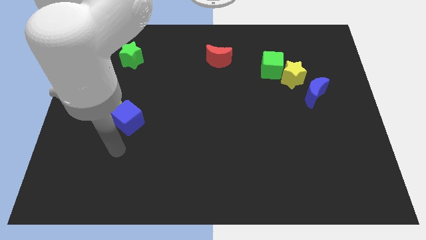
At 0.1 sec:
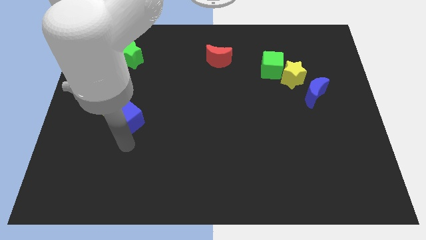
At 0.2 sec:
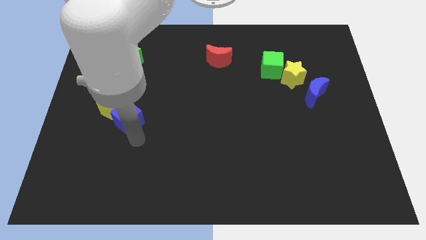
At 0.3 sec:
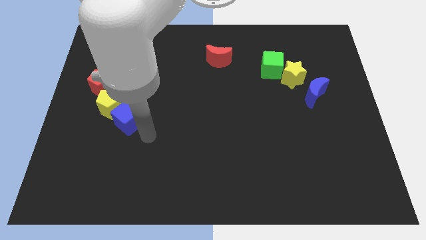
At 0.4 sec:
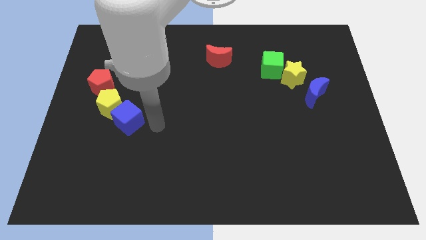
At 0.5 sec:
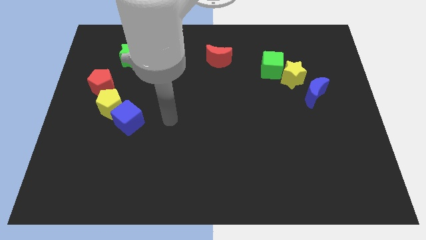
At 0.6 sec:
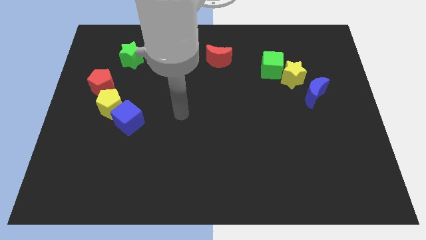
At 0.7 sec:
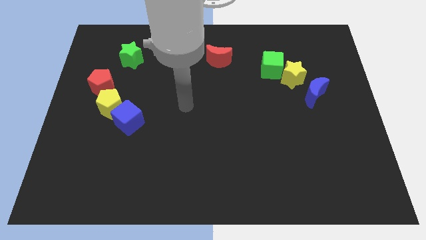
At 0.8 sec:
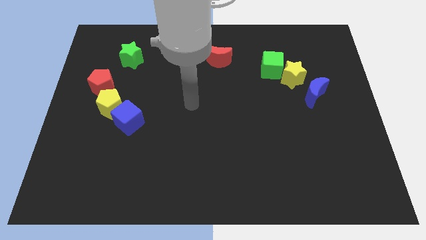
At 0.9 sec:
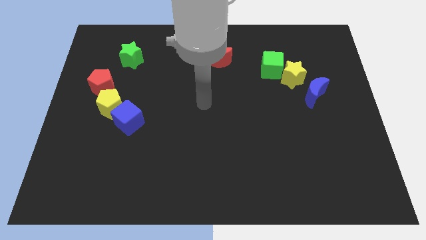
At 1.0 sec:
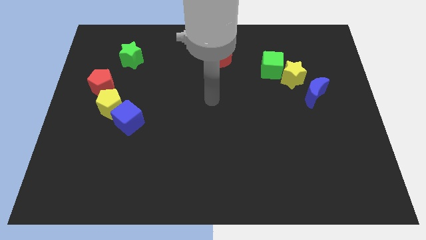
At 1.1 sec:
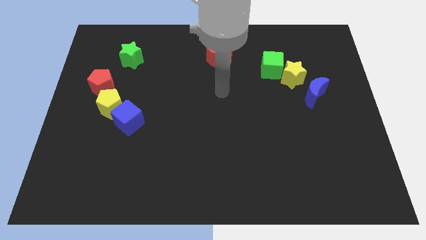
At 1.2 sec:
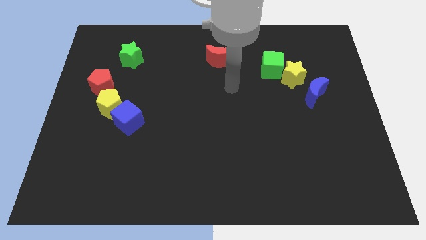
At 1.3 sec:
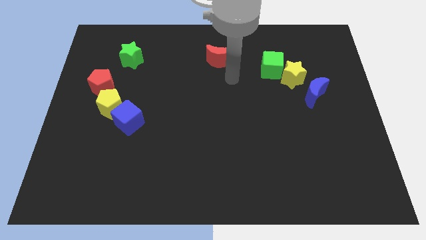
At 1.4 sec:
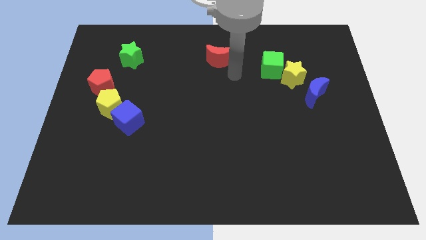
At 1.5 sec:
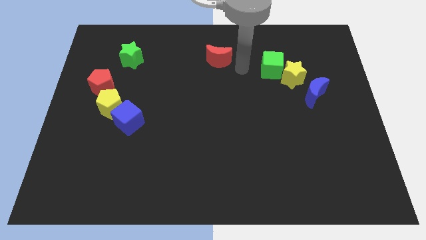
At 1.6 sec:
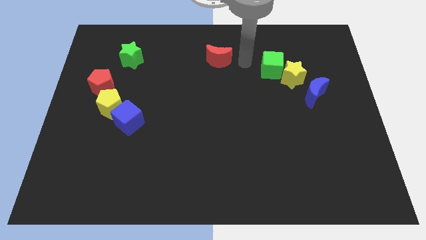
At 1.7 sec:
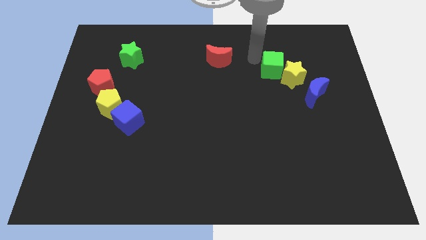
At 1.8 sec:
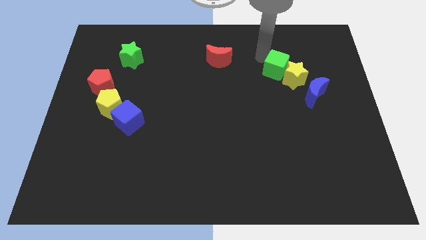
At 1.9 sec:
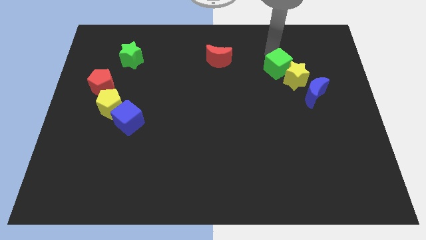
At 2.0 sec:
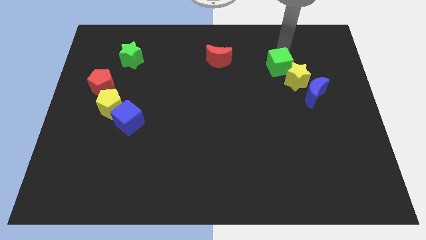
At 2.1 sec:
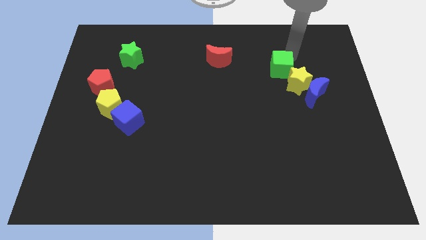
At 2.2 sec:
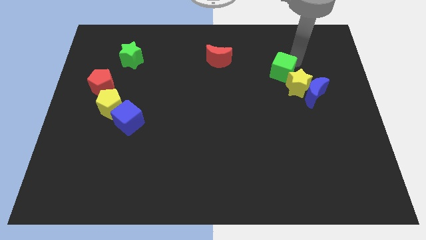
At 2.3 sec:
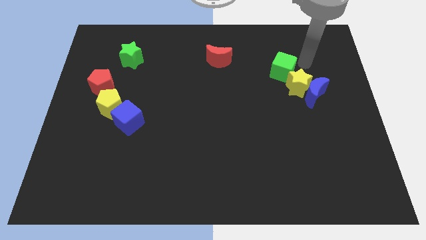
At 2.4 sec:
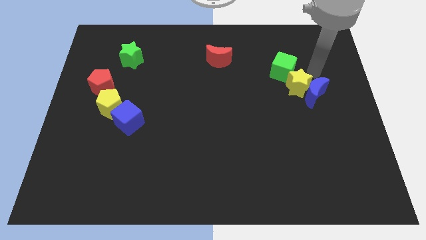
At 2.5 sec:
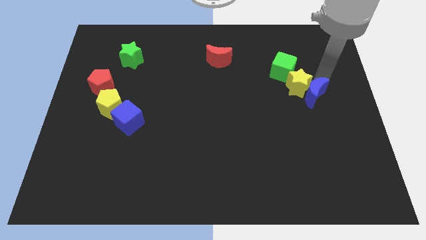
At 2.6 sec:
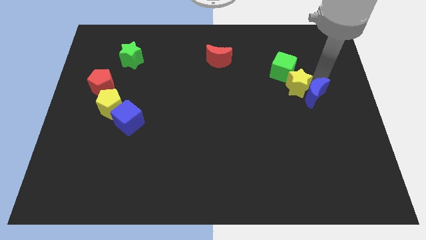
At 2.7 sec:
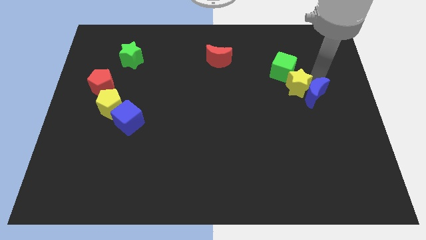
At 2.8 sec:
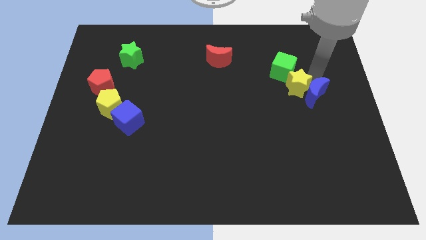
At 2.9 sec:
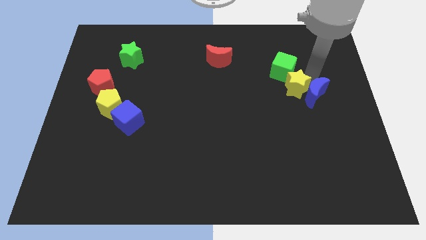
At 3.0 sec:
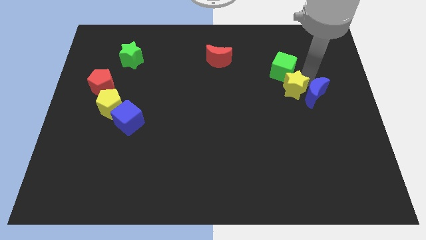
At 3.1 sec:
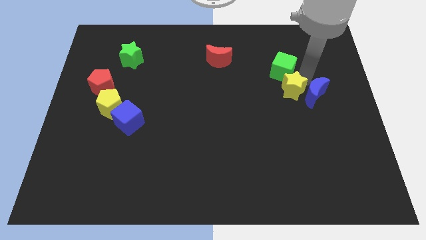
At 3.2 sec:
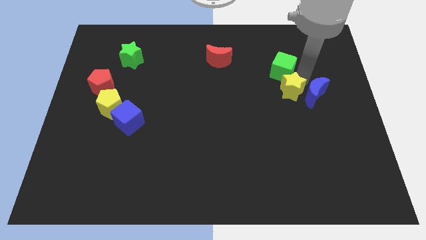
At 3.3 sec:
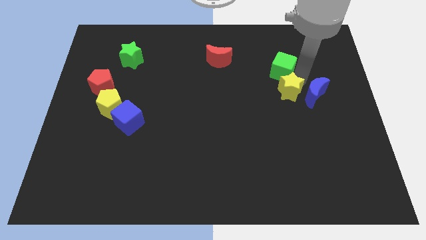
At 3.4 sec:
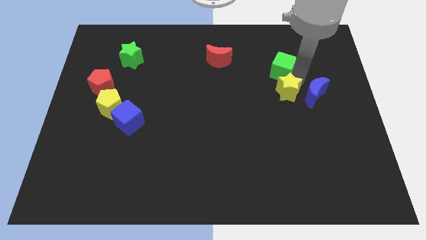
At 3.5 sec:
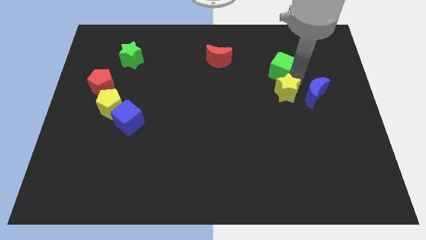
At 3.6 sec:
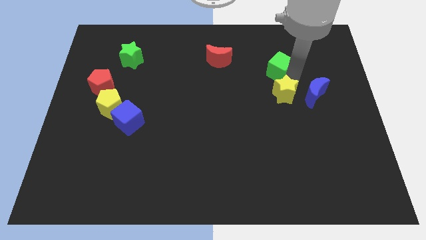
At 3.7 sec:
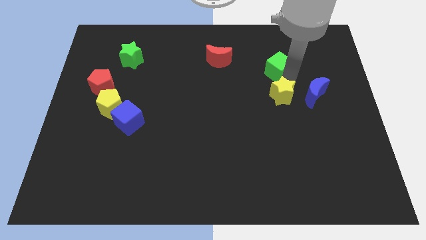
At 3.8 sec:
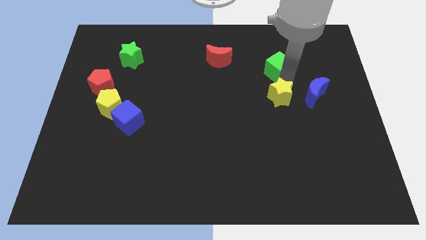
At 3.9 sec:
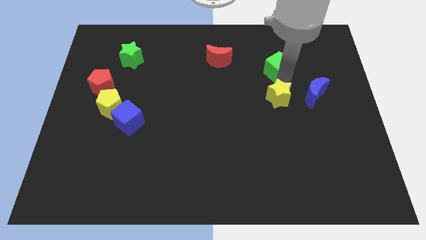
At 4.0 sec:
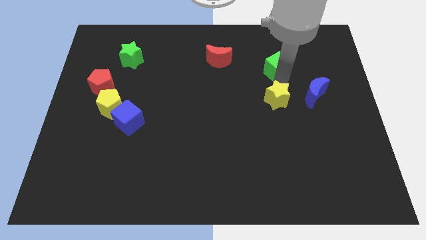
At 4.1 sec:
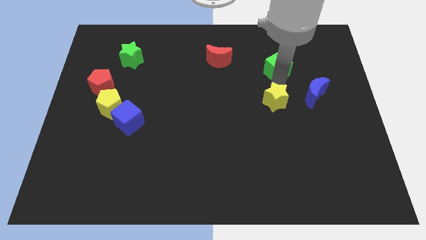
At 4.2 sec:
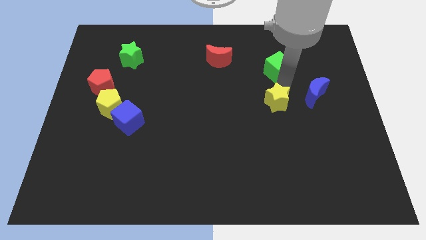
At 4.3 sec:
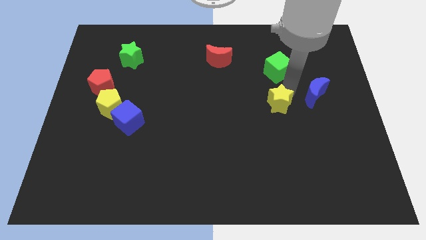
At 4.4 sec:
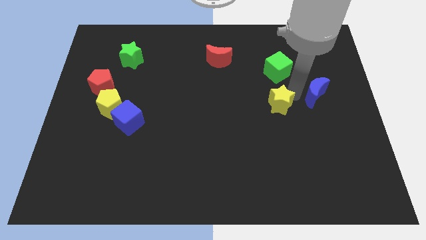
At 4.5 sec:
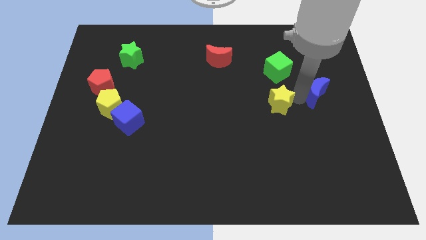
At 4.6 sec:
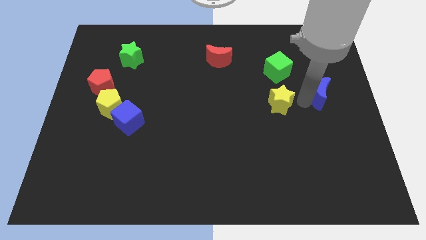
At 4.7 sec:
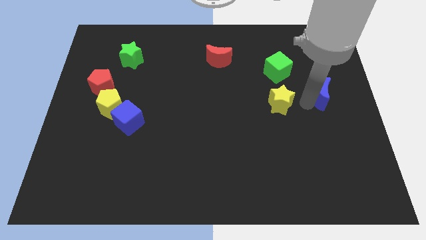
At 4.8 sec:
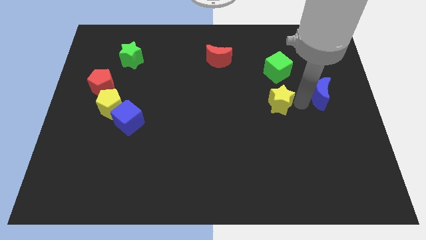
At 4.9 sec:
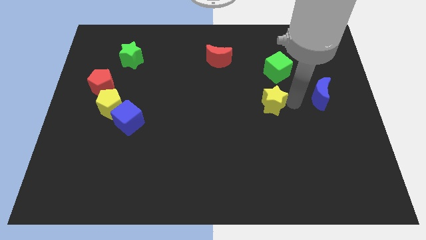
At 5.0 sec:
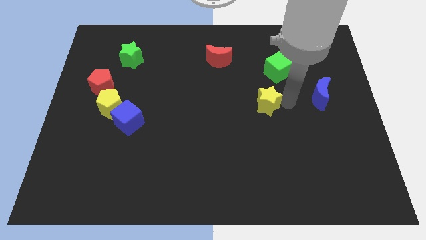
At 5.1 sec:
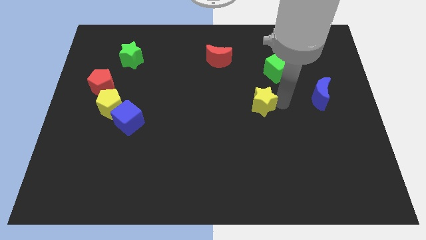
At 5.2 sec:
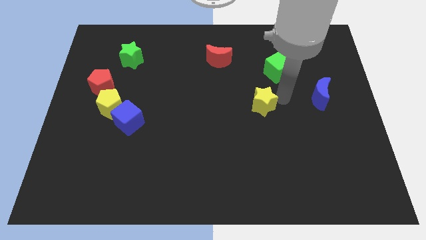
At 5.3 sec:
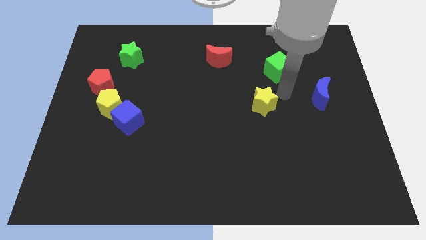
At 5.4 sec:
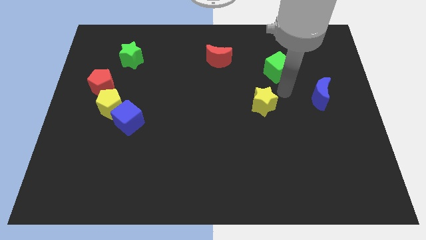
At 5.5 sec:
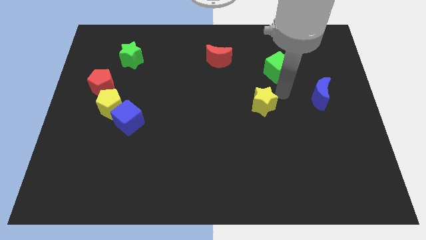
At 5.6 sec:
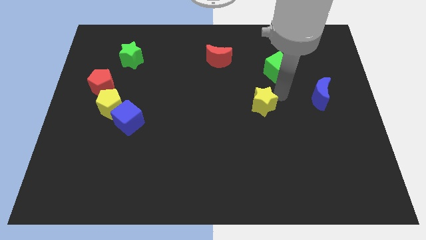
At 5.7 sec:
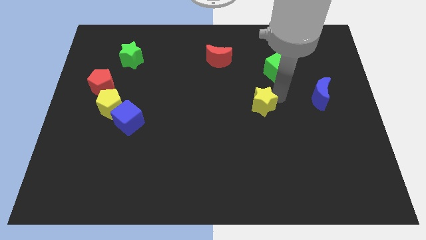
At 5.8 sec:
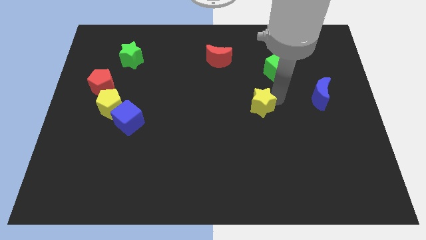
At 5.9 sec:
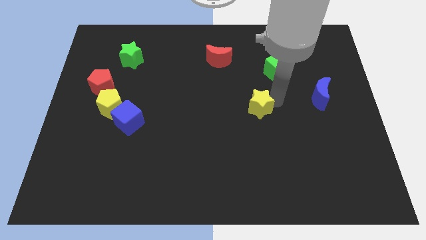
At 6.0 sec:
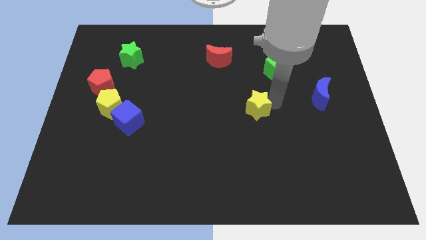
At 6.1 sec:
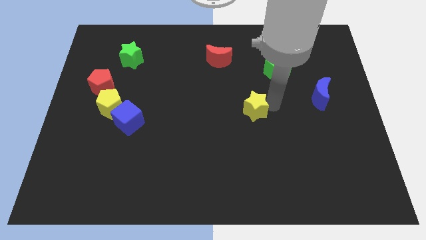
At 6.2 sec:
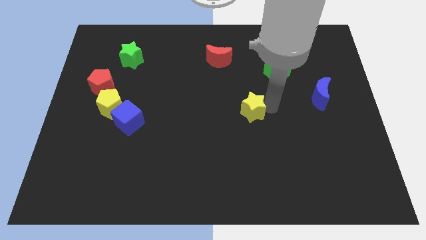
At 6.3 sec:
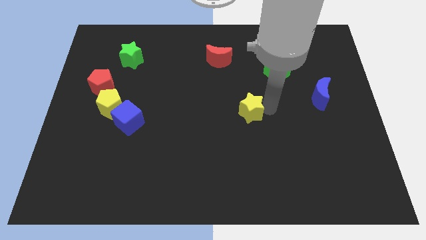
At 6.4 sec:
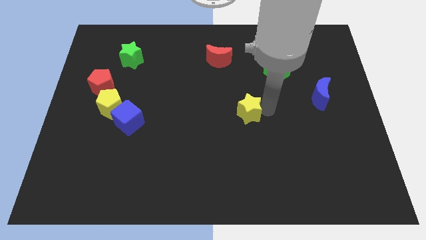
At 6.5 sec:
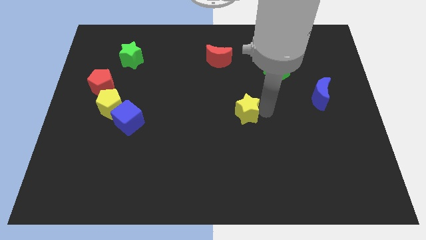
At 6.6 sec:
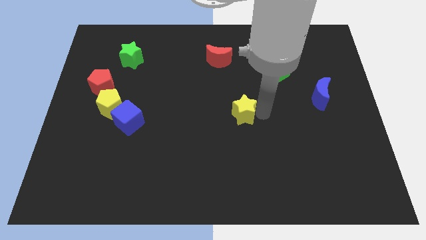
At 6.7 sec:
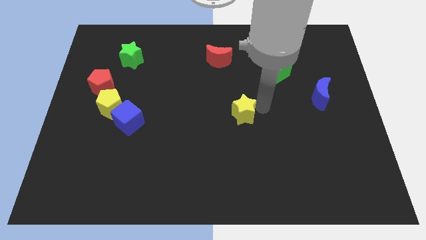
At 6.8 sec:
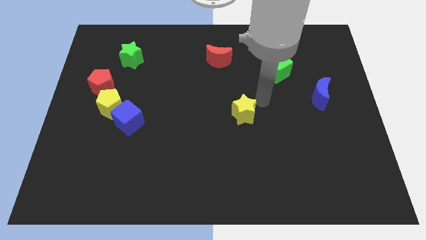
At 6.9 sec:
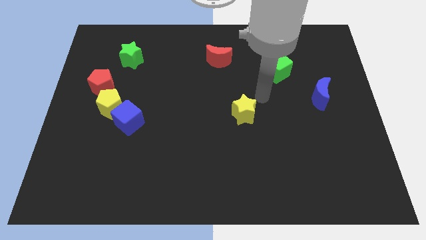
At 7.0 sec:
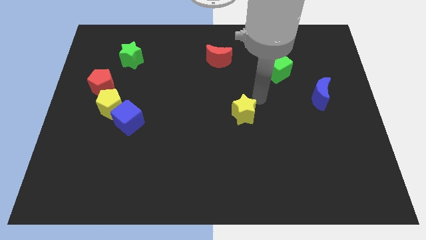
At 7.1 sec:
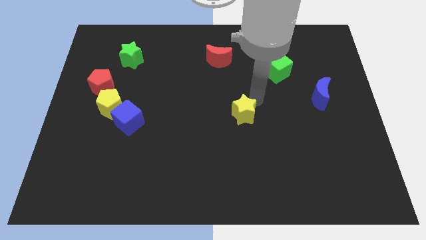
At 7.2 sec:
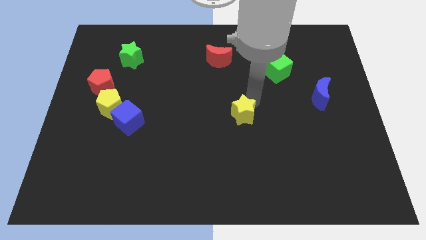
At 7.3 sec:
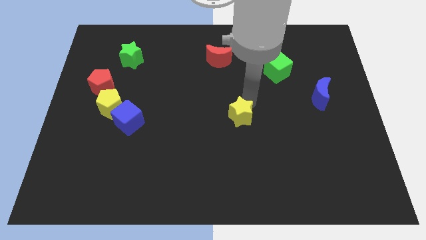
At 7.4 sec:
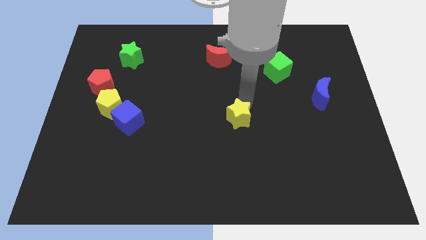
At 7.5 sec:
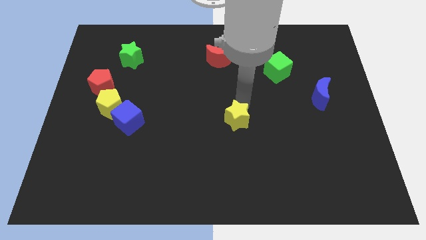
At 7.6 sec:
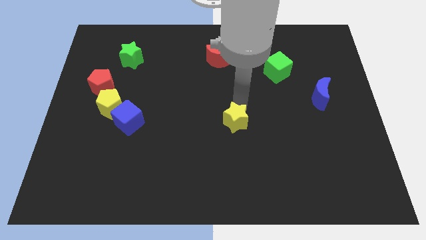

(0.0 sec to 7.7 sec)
move the yellow star down and left diagonally
